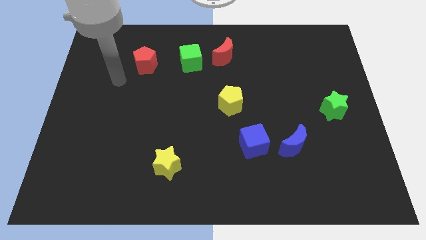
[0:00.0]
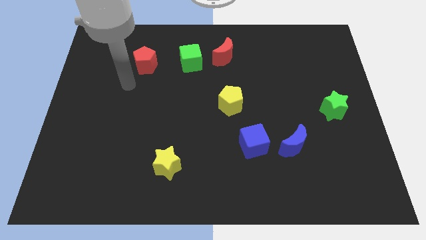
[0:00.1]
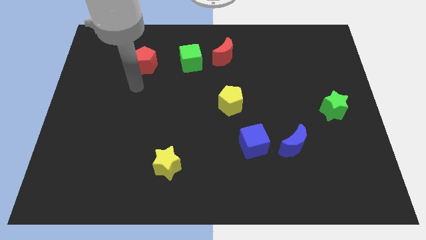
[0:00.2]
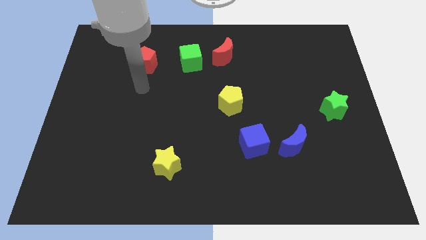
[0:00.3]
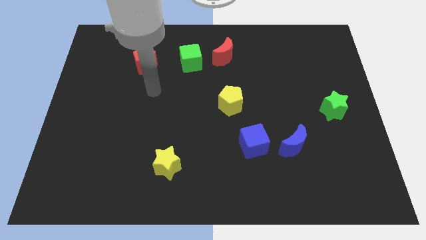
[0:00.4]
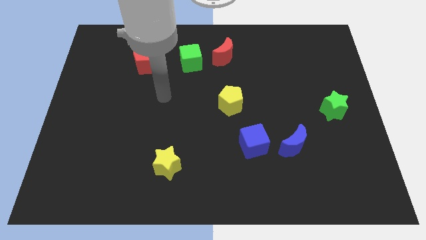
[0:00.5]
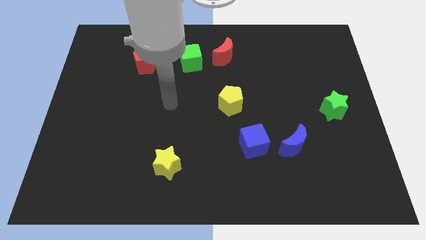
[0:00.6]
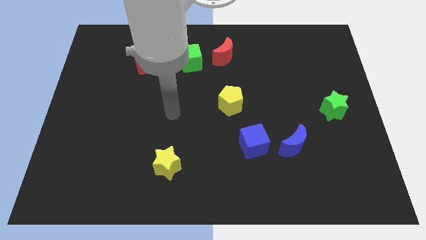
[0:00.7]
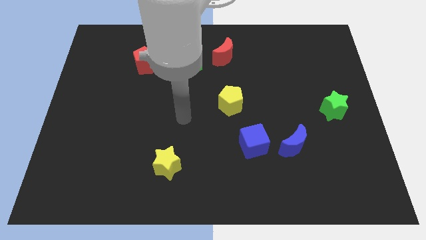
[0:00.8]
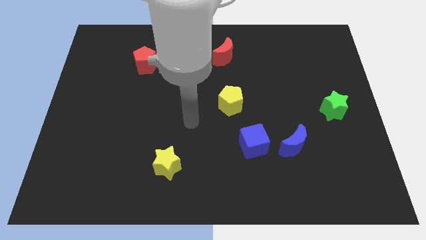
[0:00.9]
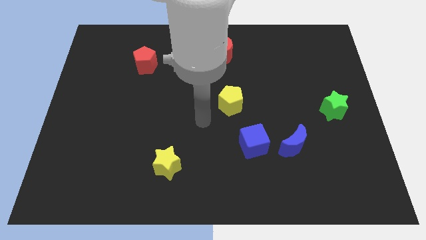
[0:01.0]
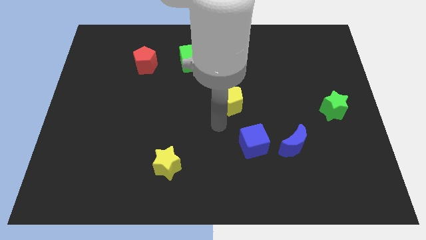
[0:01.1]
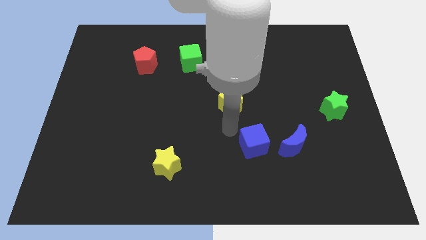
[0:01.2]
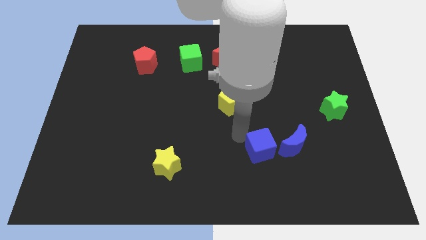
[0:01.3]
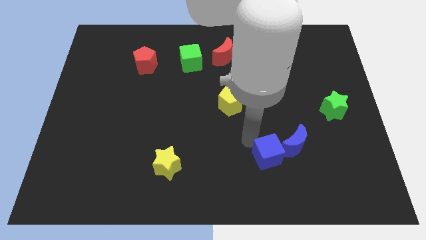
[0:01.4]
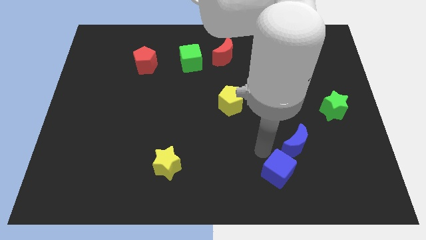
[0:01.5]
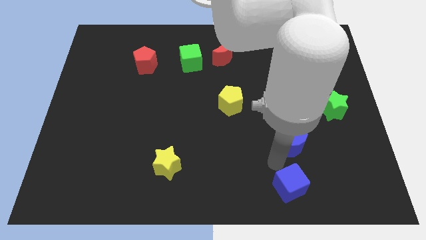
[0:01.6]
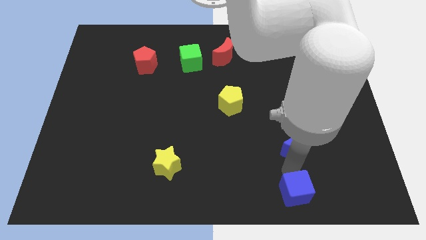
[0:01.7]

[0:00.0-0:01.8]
move the blue moon away from the blue cube

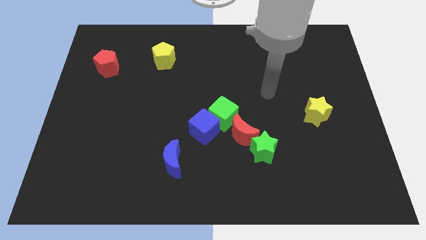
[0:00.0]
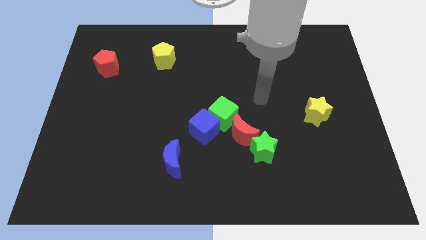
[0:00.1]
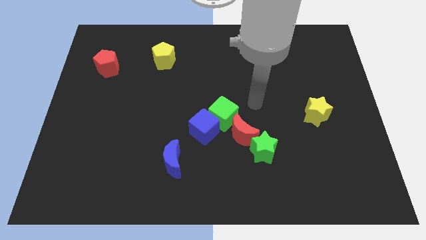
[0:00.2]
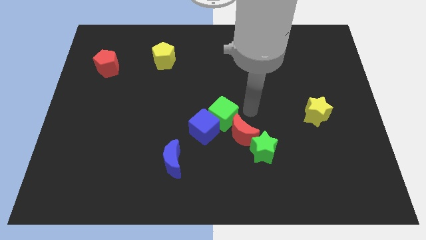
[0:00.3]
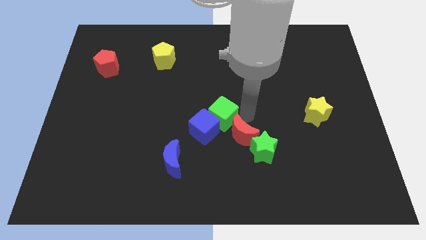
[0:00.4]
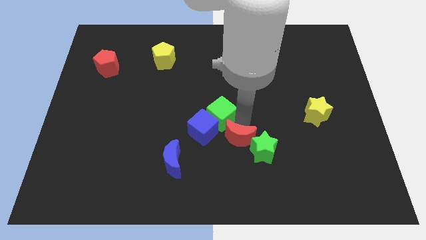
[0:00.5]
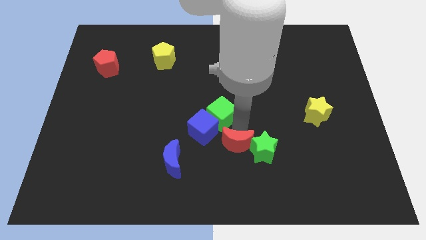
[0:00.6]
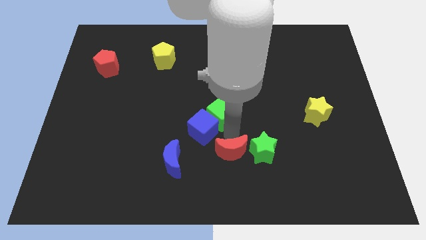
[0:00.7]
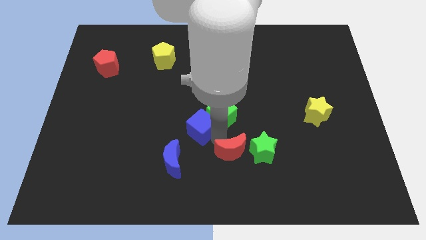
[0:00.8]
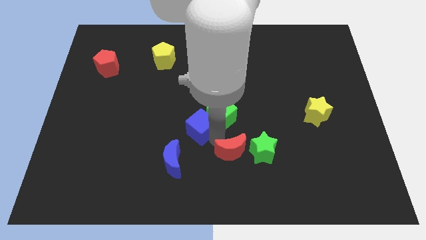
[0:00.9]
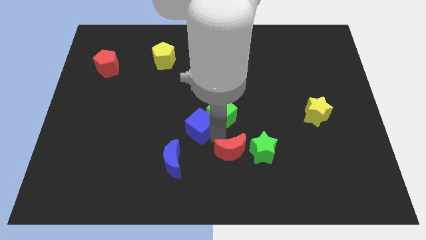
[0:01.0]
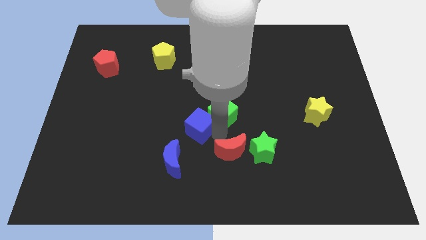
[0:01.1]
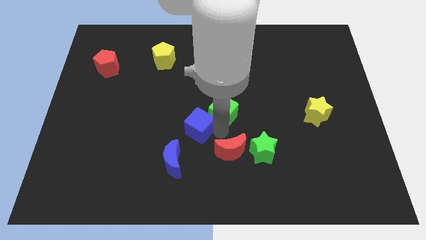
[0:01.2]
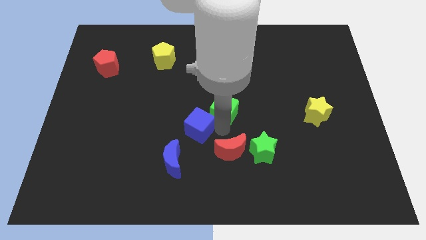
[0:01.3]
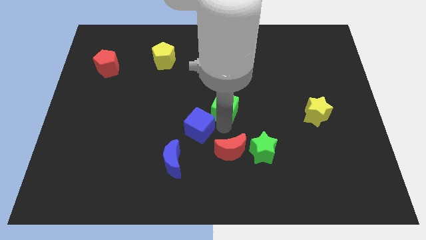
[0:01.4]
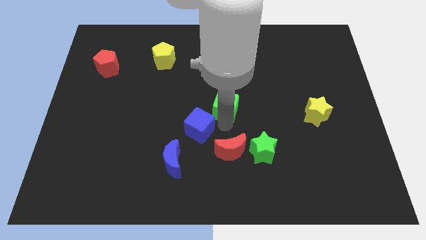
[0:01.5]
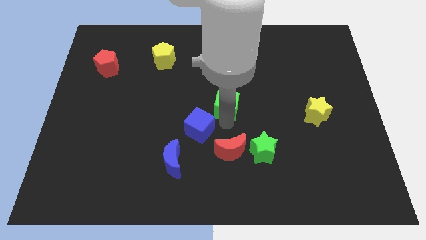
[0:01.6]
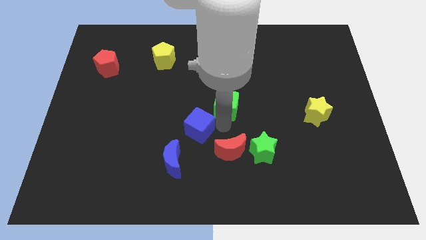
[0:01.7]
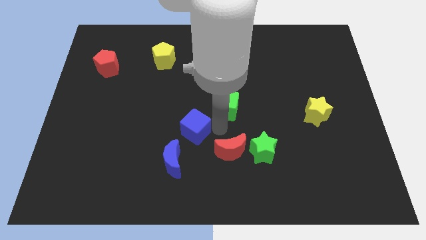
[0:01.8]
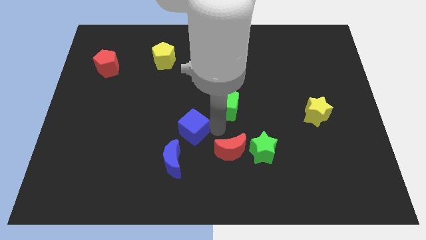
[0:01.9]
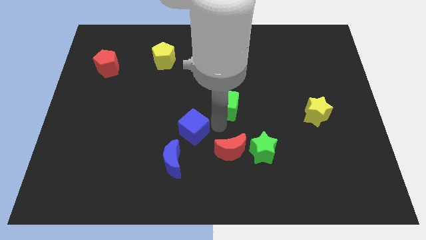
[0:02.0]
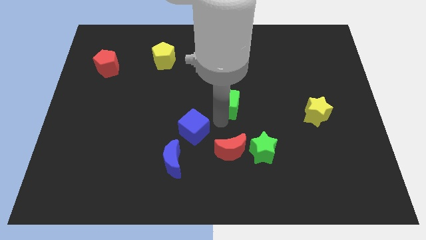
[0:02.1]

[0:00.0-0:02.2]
pull the green cube apart from the blue cube and red moon

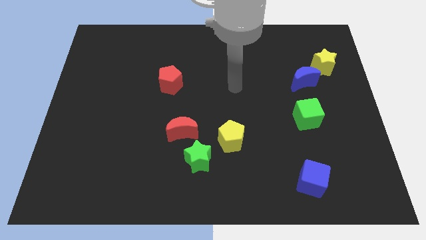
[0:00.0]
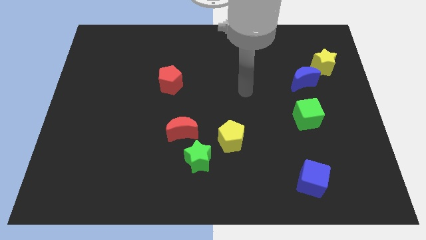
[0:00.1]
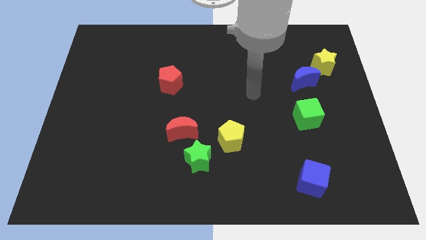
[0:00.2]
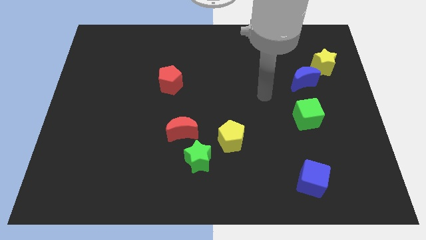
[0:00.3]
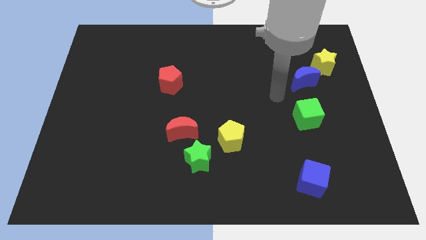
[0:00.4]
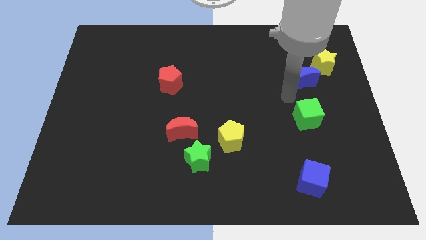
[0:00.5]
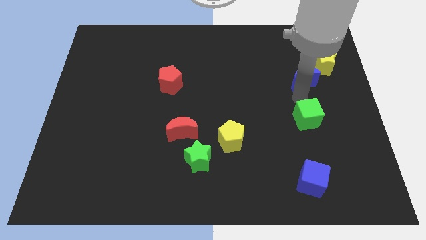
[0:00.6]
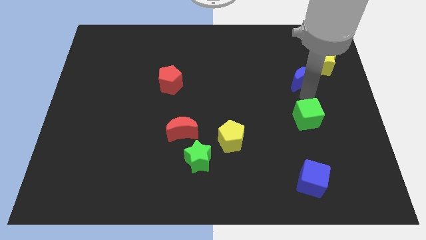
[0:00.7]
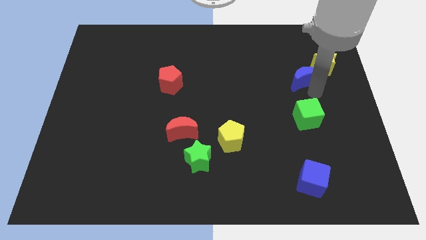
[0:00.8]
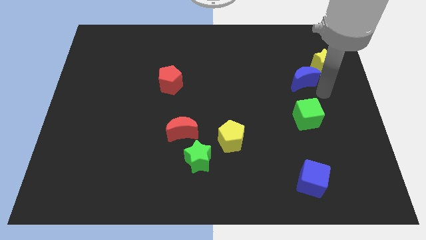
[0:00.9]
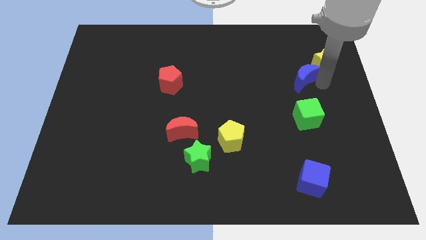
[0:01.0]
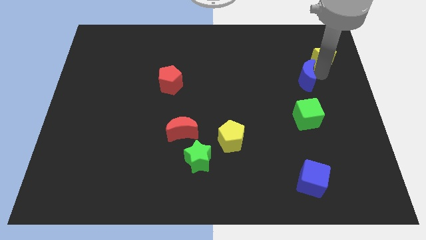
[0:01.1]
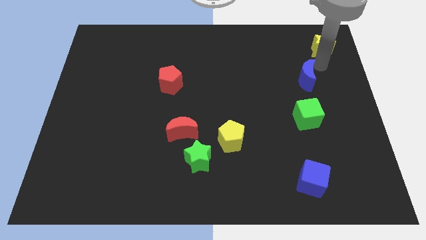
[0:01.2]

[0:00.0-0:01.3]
pull the blue moon apart from the yellow star

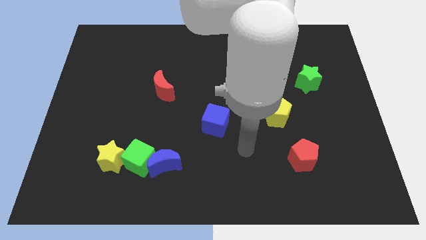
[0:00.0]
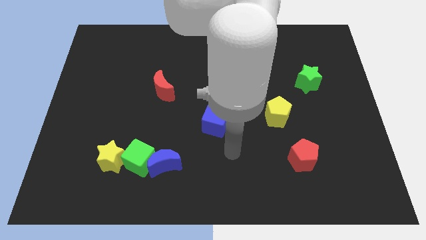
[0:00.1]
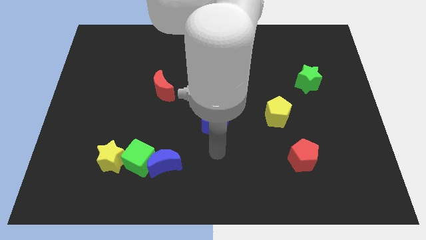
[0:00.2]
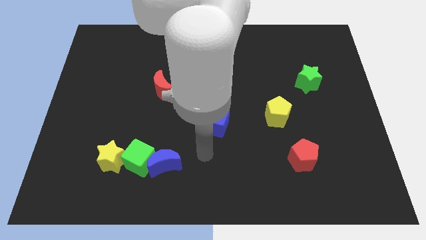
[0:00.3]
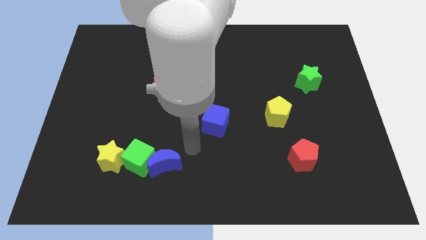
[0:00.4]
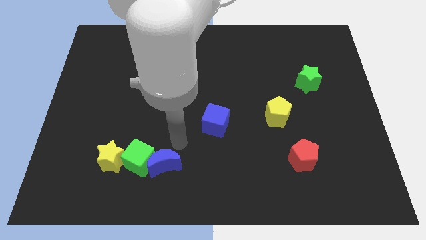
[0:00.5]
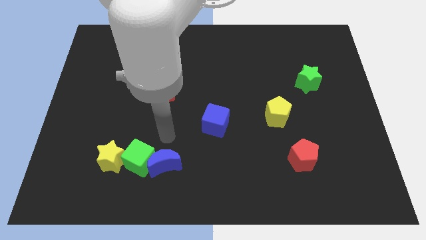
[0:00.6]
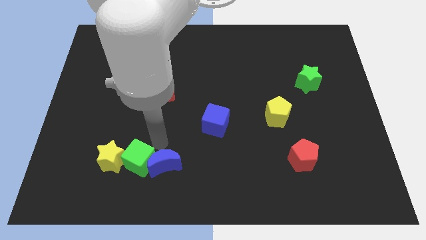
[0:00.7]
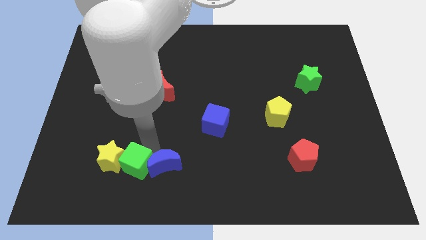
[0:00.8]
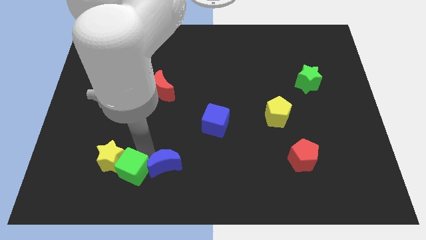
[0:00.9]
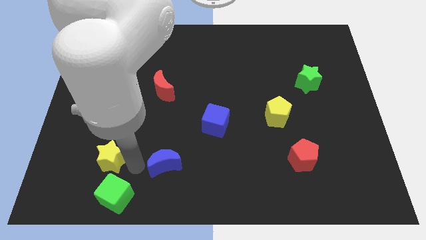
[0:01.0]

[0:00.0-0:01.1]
move the blue moon away from the green cube

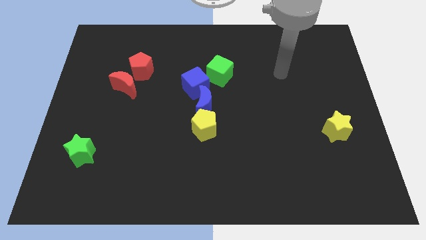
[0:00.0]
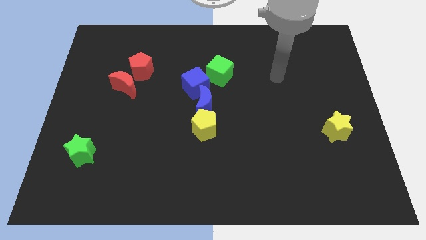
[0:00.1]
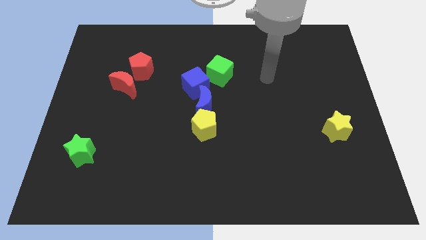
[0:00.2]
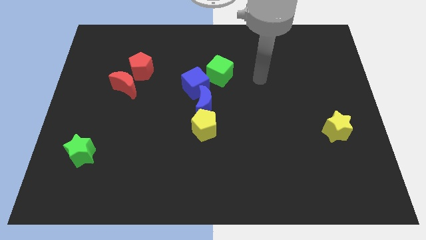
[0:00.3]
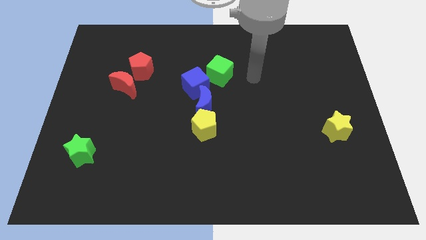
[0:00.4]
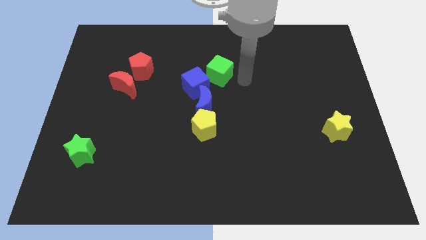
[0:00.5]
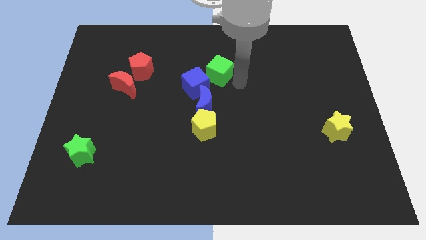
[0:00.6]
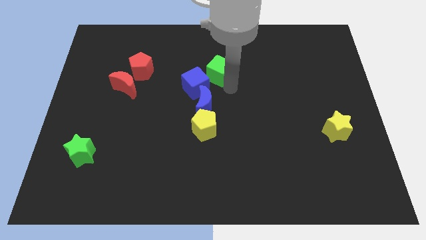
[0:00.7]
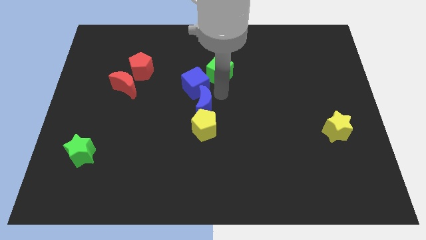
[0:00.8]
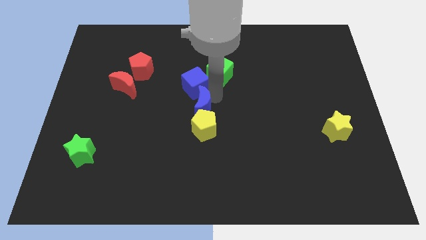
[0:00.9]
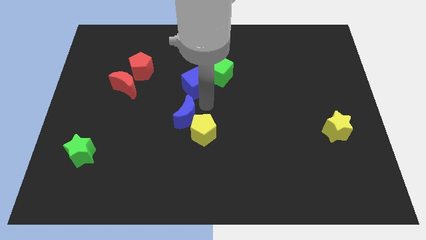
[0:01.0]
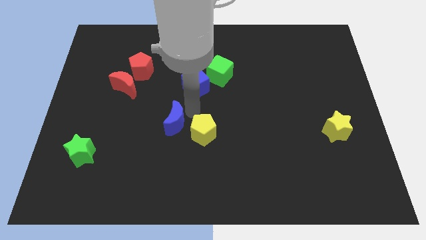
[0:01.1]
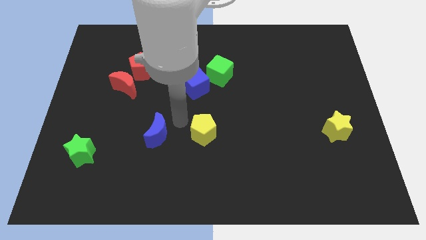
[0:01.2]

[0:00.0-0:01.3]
separate the yellow pentagon from the blue moon

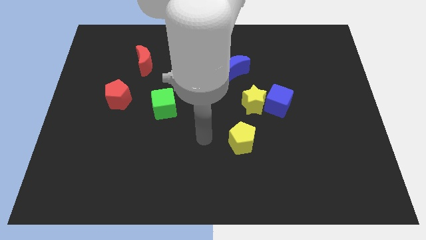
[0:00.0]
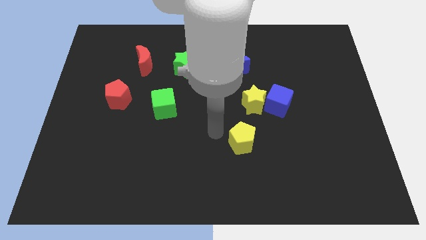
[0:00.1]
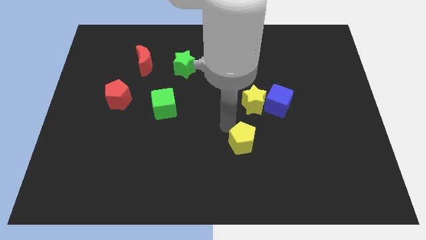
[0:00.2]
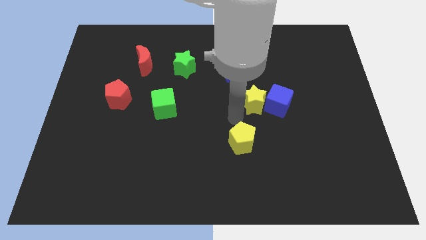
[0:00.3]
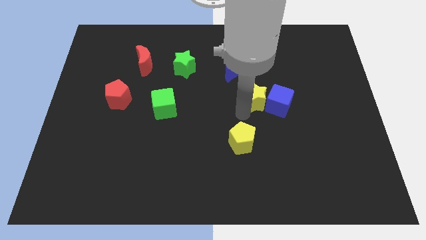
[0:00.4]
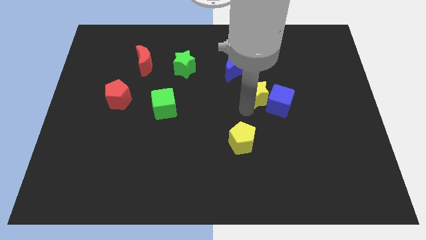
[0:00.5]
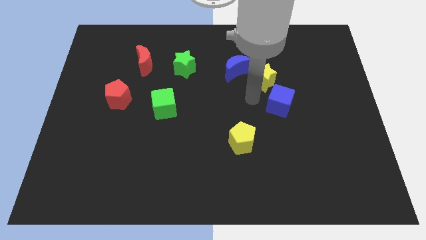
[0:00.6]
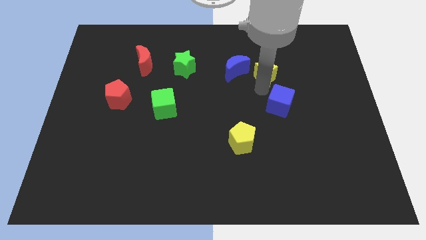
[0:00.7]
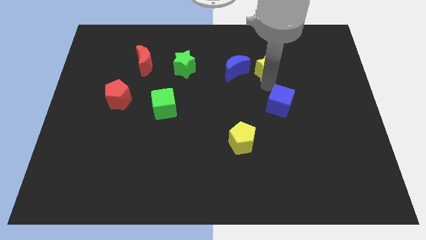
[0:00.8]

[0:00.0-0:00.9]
pull the blue cube apart from the yellow star

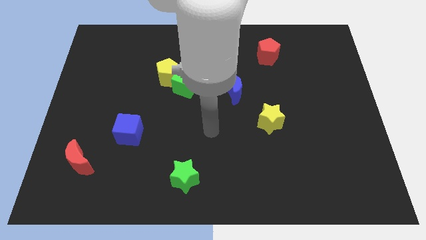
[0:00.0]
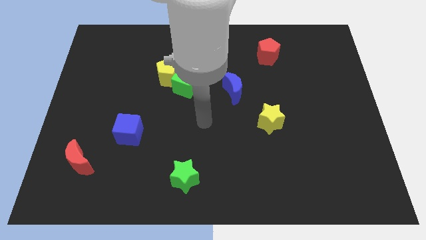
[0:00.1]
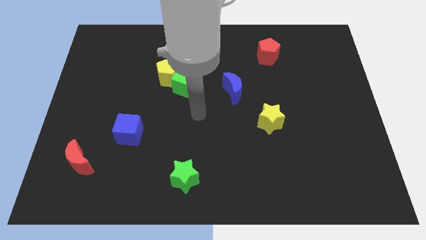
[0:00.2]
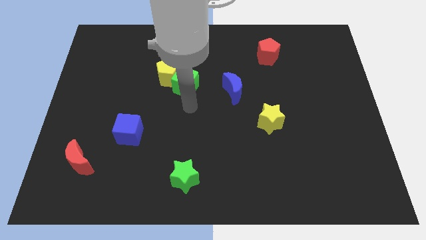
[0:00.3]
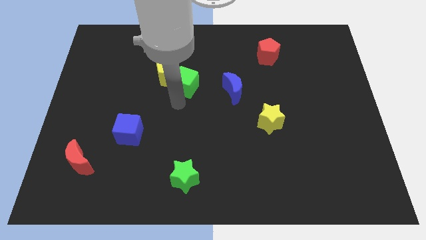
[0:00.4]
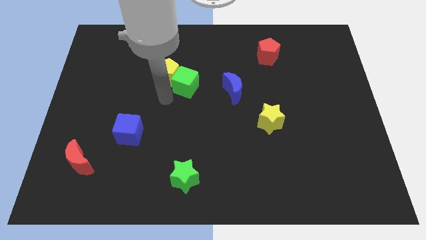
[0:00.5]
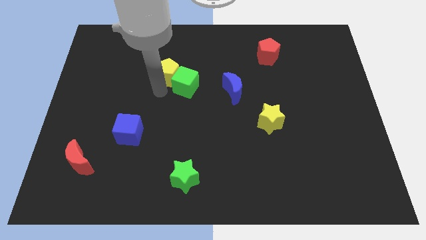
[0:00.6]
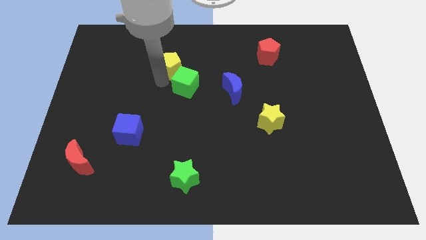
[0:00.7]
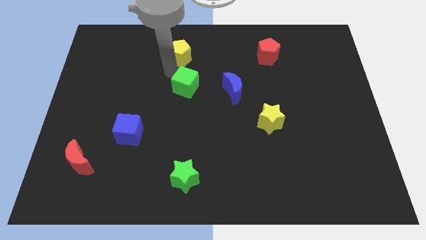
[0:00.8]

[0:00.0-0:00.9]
separate the green cube from the yellow pentagon
